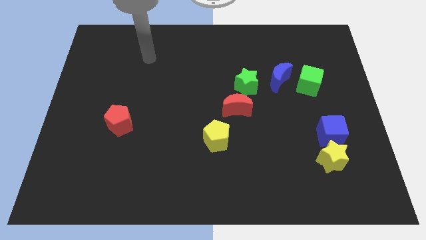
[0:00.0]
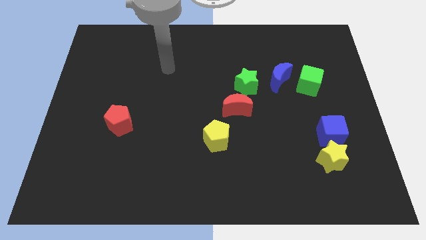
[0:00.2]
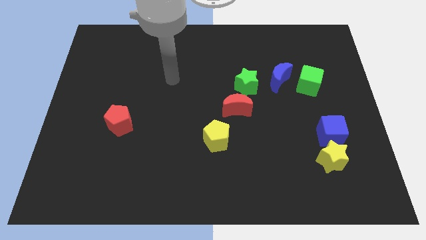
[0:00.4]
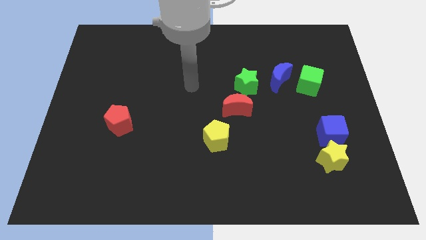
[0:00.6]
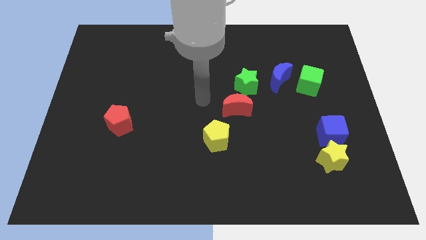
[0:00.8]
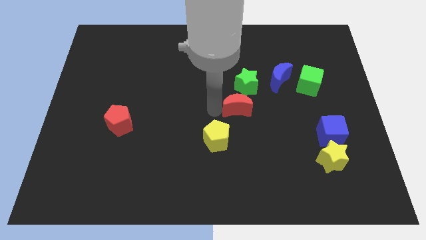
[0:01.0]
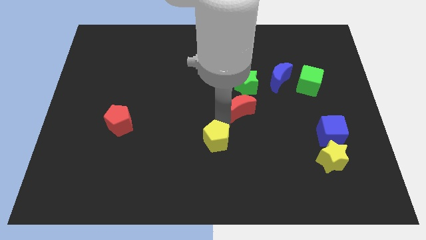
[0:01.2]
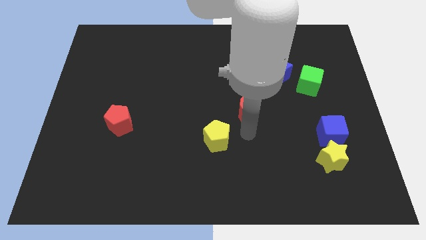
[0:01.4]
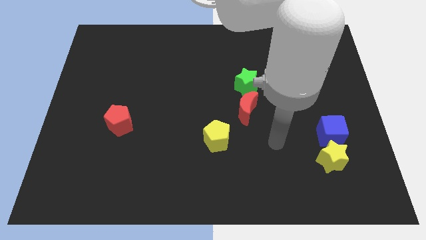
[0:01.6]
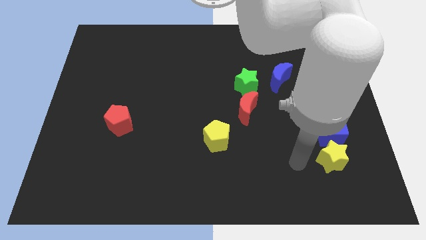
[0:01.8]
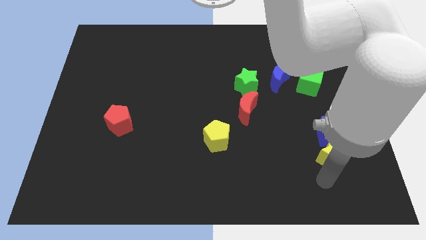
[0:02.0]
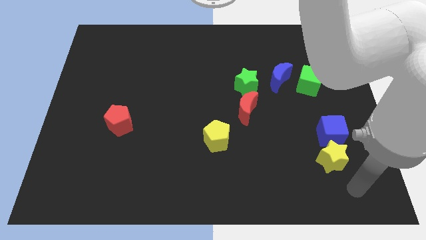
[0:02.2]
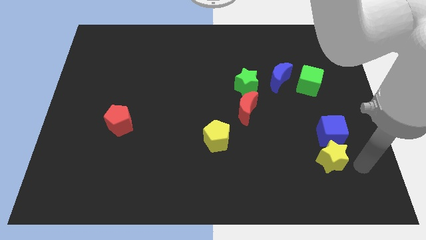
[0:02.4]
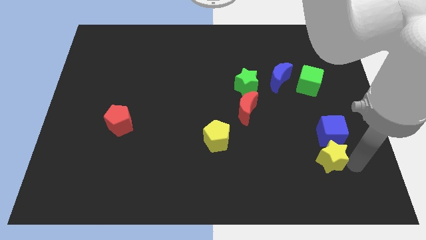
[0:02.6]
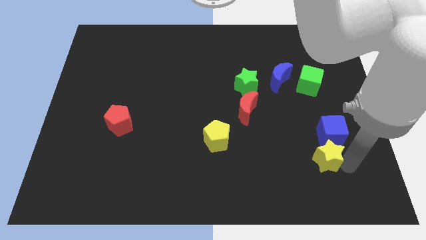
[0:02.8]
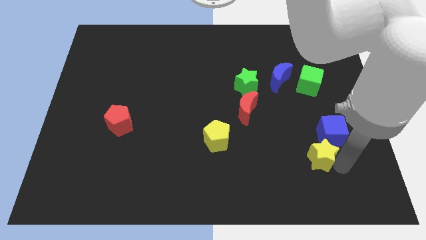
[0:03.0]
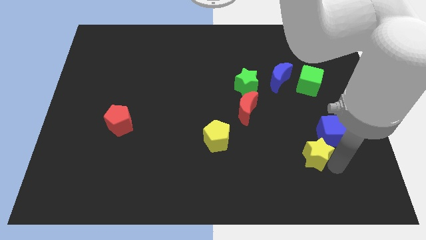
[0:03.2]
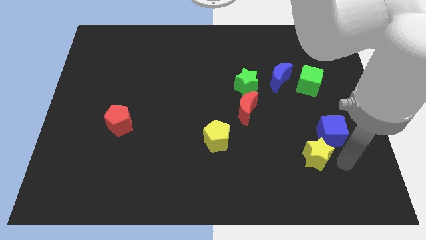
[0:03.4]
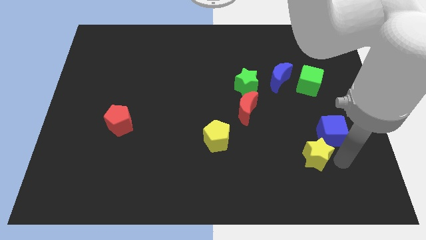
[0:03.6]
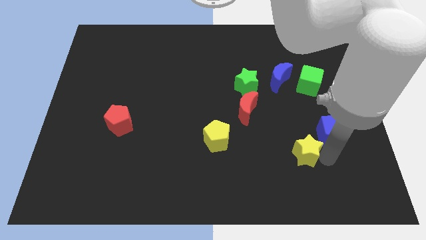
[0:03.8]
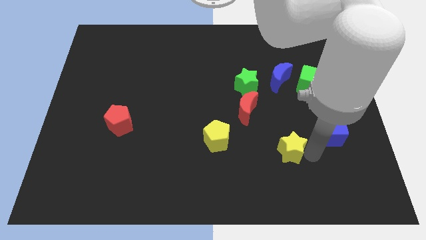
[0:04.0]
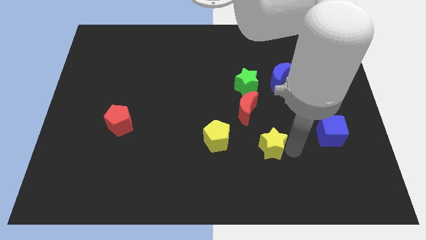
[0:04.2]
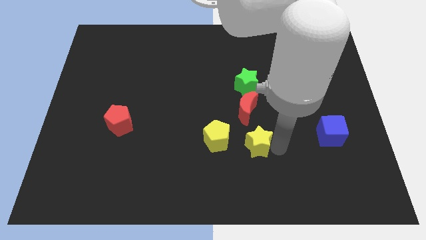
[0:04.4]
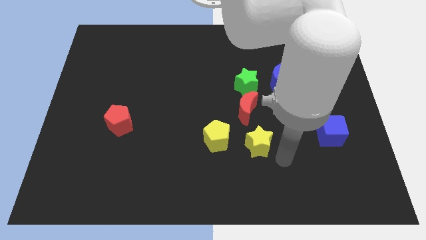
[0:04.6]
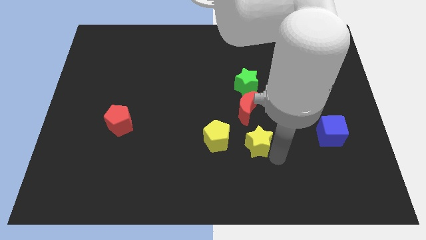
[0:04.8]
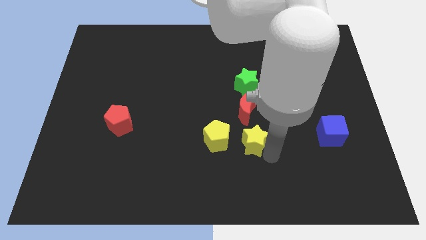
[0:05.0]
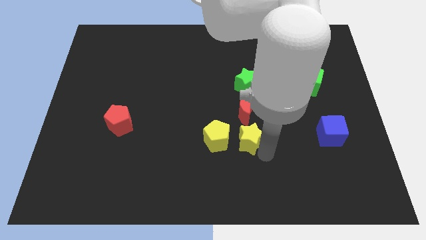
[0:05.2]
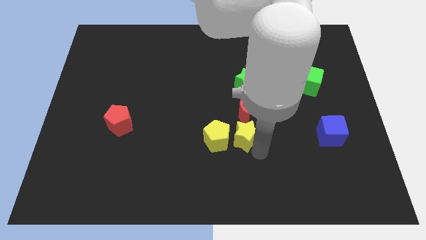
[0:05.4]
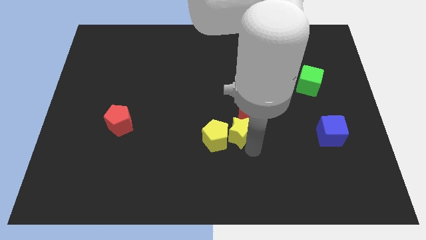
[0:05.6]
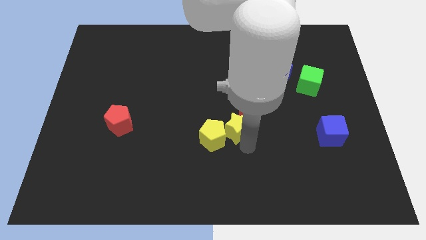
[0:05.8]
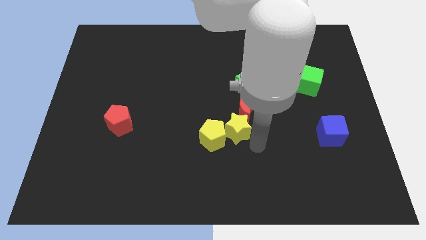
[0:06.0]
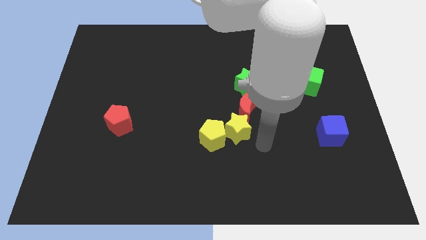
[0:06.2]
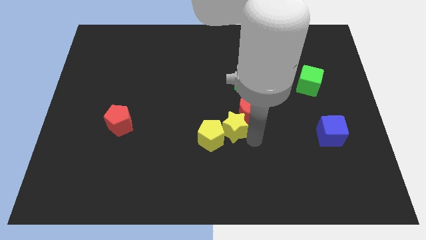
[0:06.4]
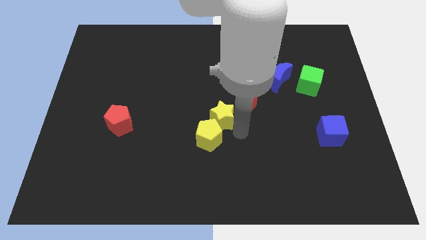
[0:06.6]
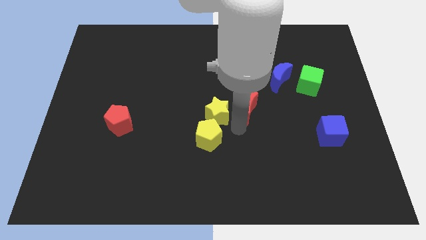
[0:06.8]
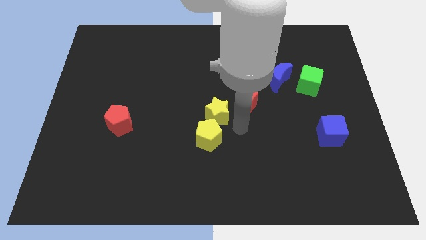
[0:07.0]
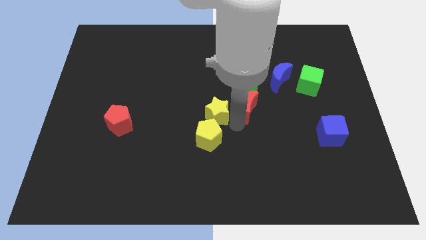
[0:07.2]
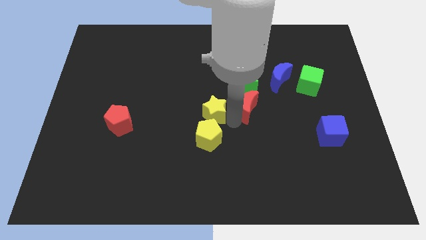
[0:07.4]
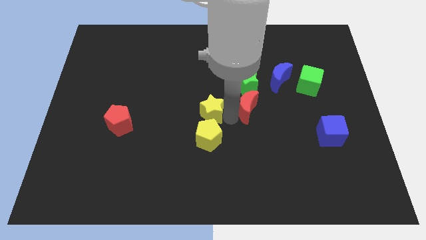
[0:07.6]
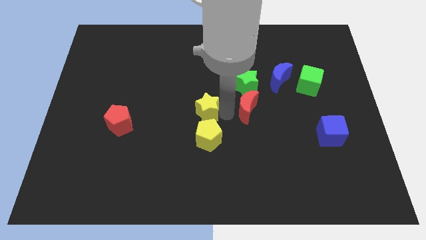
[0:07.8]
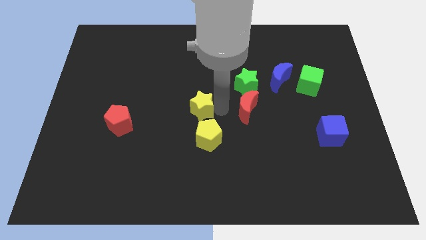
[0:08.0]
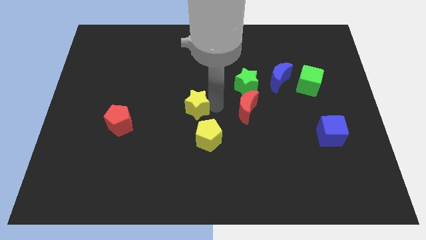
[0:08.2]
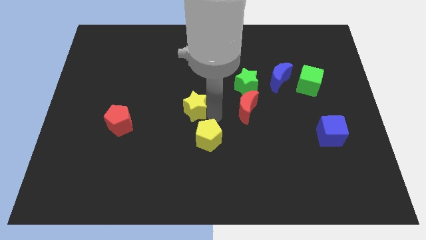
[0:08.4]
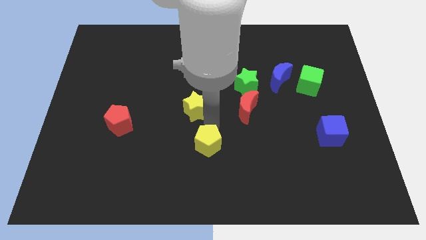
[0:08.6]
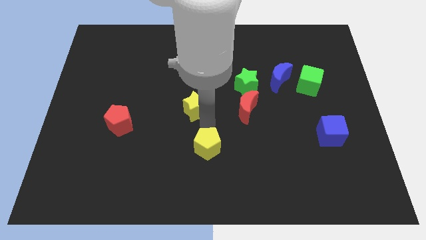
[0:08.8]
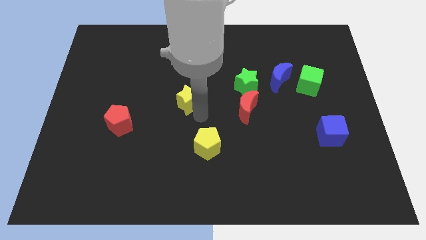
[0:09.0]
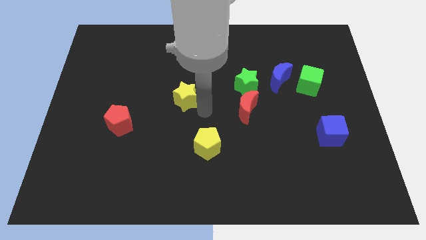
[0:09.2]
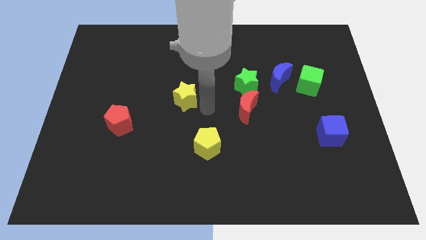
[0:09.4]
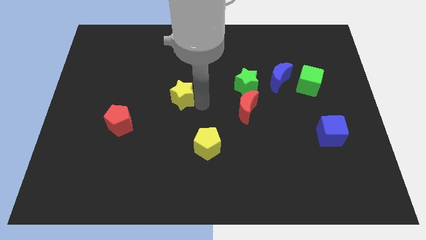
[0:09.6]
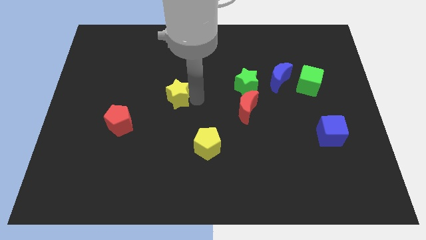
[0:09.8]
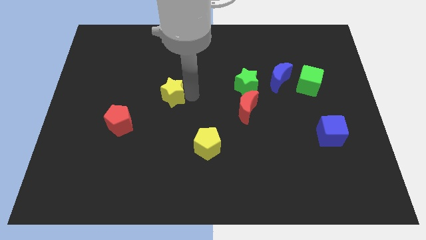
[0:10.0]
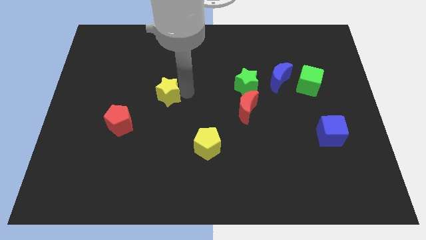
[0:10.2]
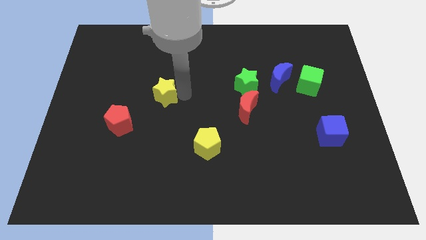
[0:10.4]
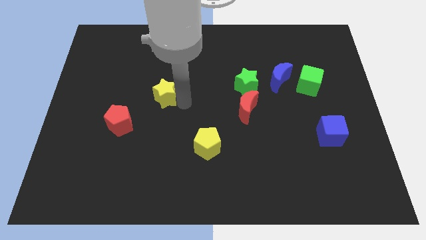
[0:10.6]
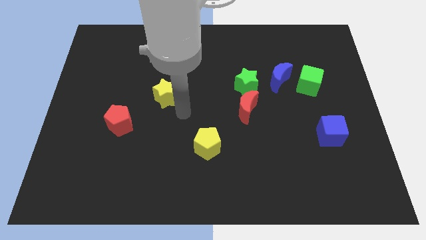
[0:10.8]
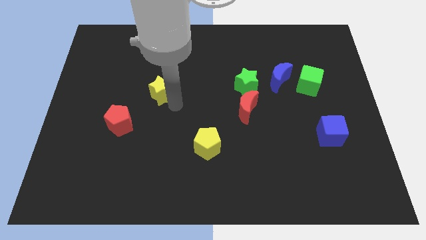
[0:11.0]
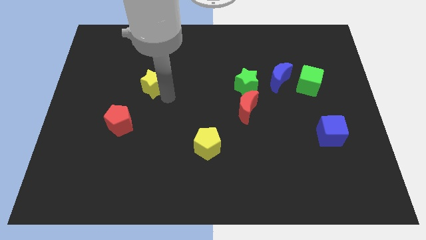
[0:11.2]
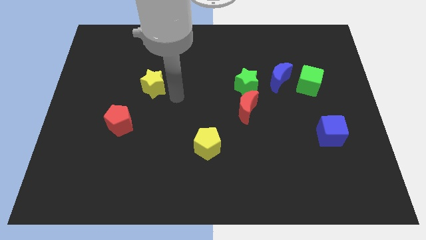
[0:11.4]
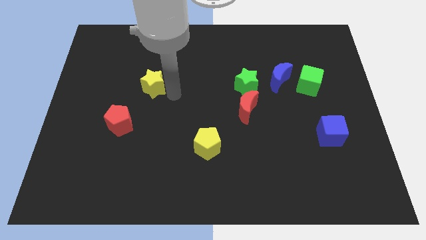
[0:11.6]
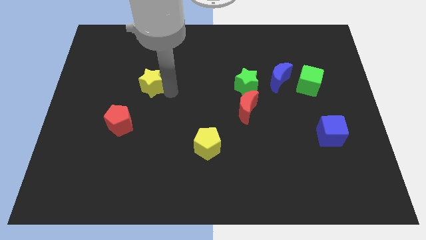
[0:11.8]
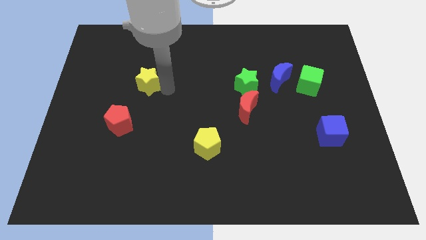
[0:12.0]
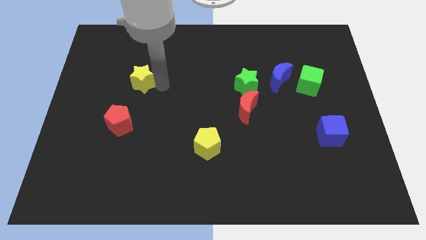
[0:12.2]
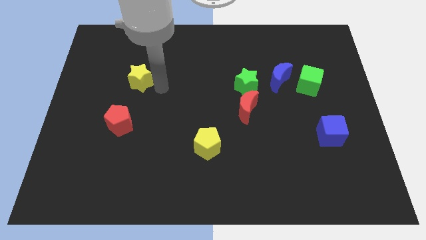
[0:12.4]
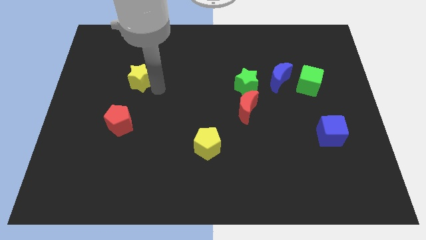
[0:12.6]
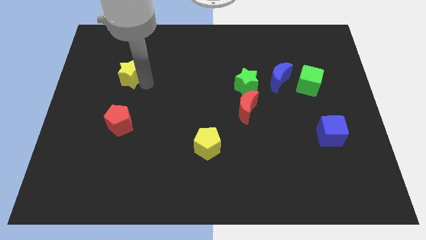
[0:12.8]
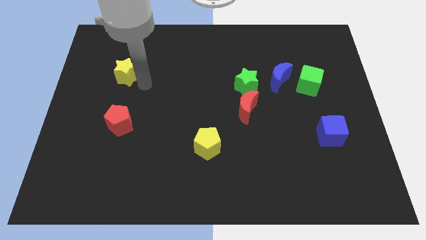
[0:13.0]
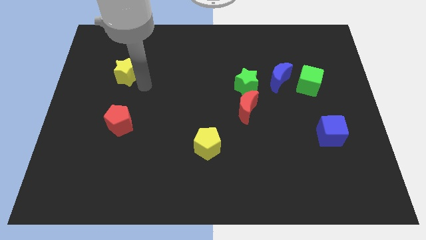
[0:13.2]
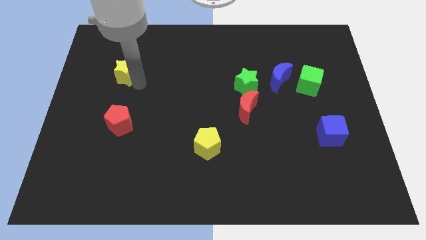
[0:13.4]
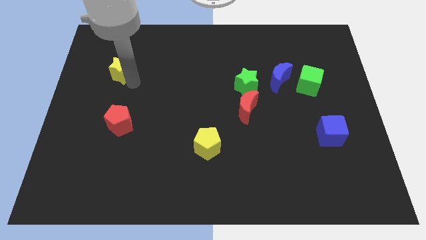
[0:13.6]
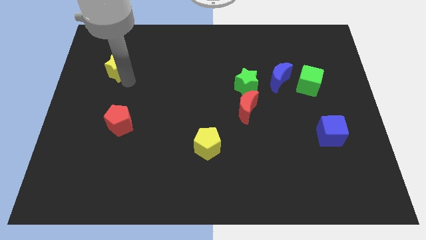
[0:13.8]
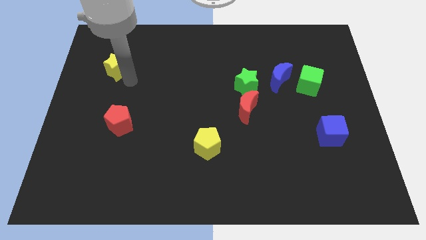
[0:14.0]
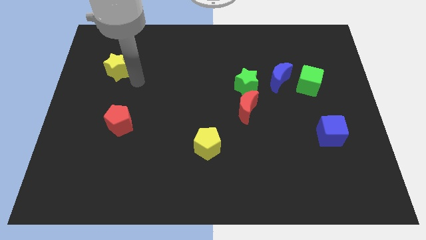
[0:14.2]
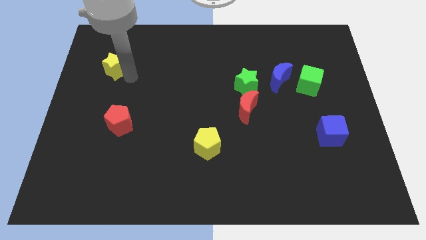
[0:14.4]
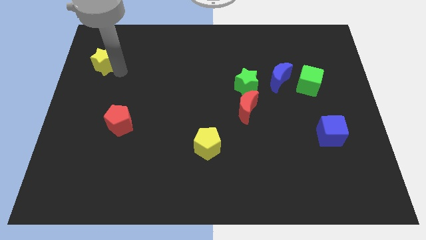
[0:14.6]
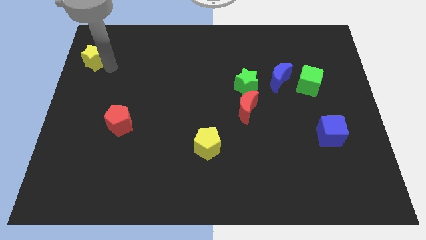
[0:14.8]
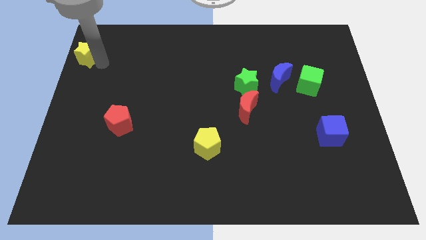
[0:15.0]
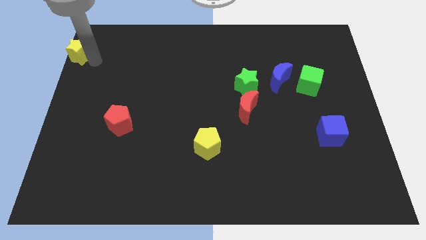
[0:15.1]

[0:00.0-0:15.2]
move the yellow star to the top left corner
